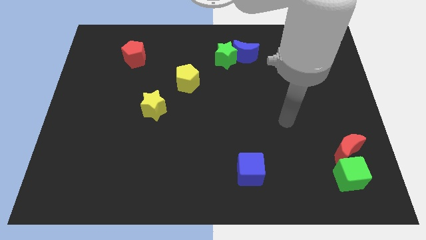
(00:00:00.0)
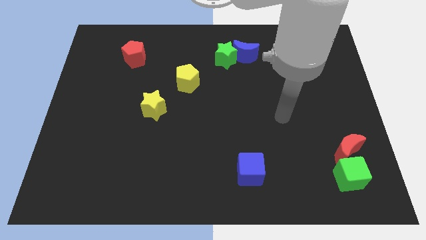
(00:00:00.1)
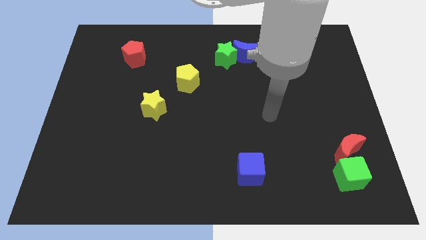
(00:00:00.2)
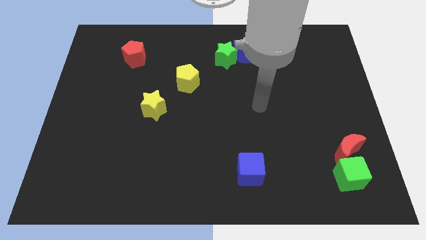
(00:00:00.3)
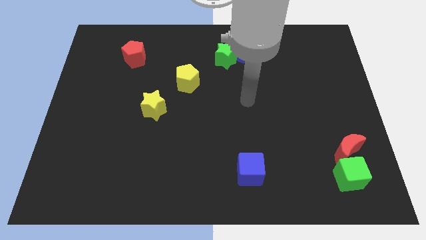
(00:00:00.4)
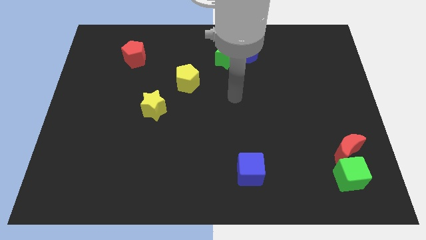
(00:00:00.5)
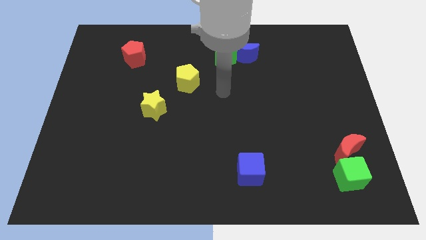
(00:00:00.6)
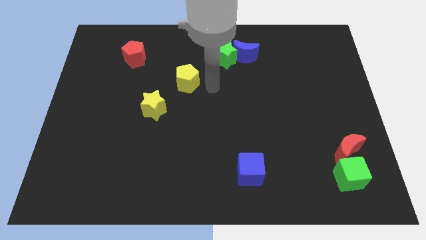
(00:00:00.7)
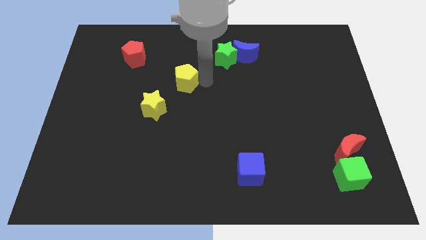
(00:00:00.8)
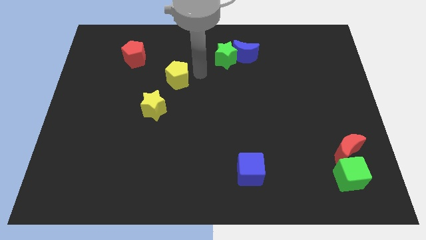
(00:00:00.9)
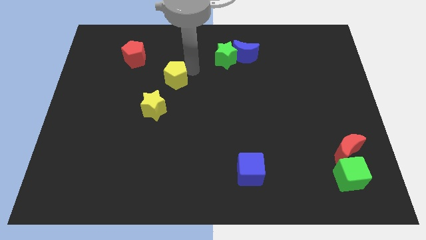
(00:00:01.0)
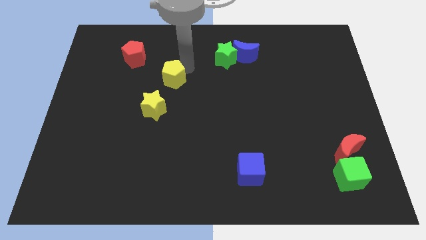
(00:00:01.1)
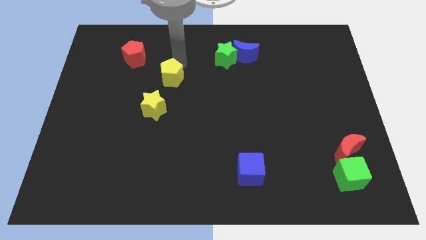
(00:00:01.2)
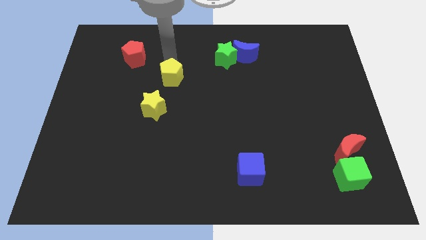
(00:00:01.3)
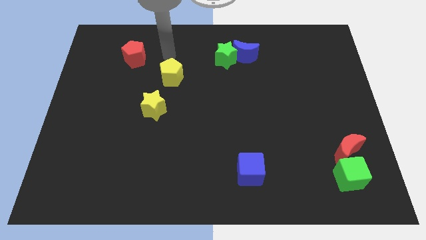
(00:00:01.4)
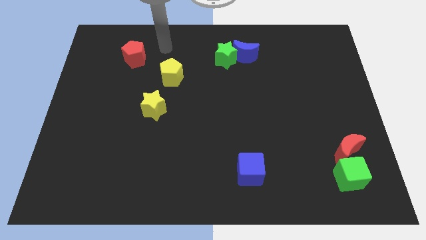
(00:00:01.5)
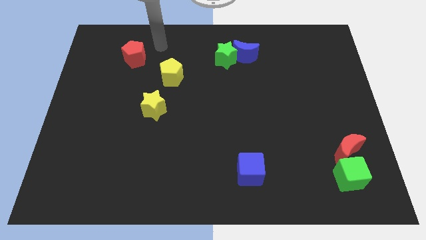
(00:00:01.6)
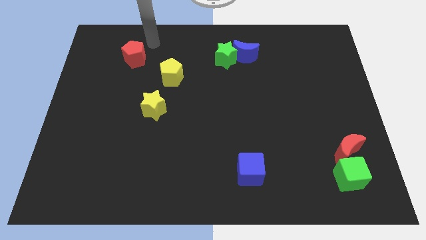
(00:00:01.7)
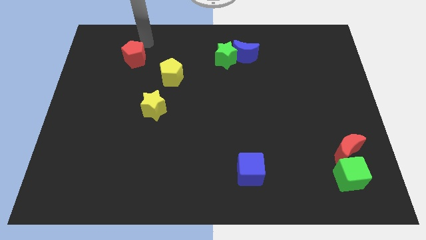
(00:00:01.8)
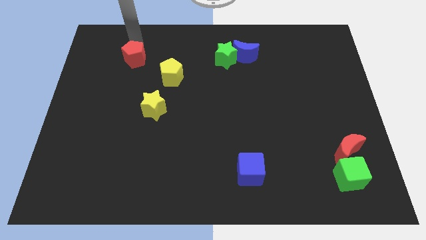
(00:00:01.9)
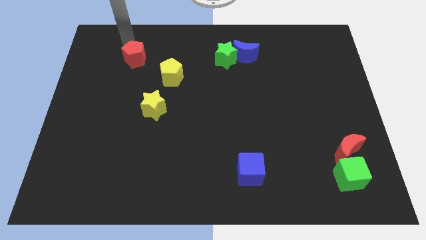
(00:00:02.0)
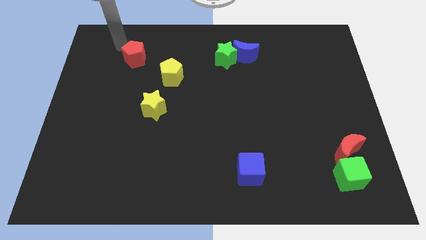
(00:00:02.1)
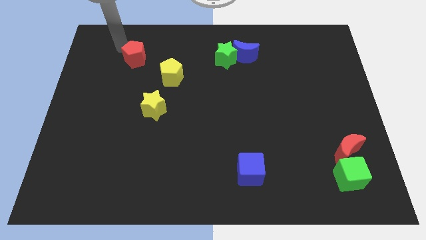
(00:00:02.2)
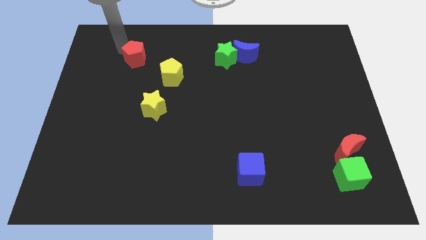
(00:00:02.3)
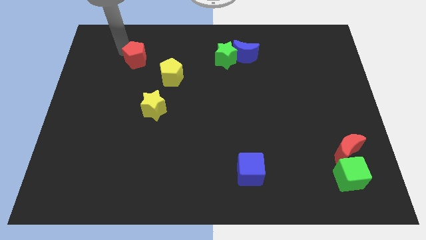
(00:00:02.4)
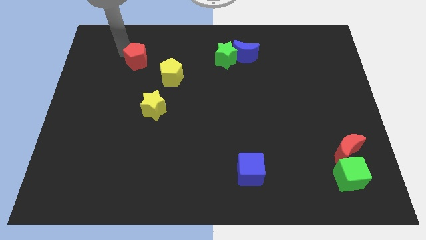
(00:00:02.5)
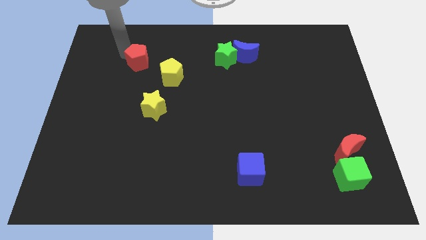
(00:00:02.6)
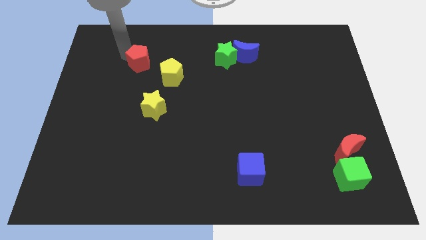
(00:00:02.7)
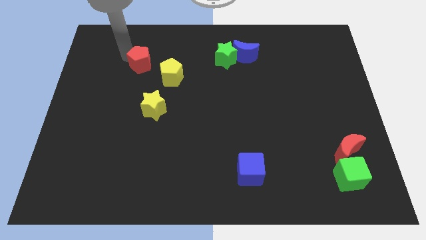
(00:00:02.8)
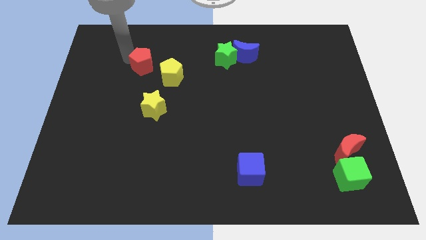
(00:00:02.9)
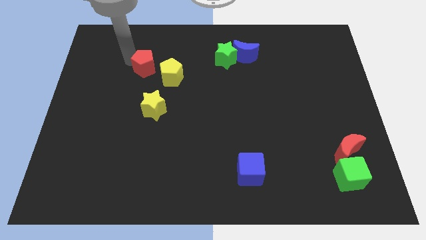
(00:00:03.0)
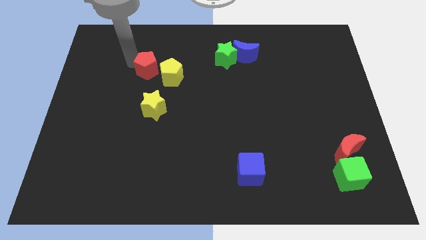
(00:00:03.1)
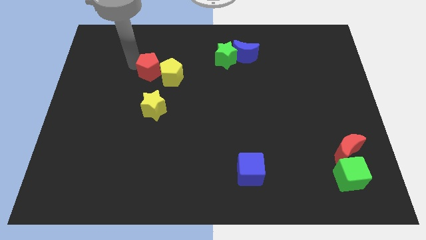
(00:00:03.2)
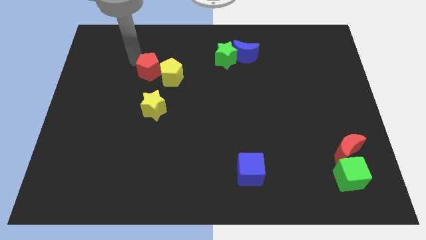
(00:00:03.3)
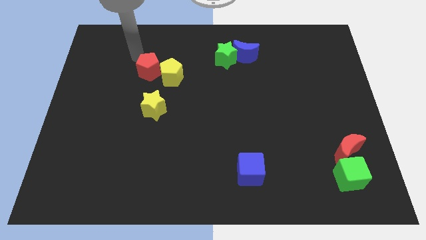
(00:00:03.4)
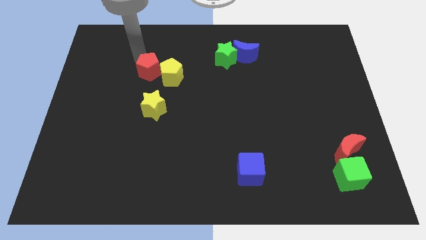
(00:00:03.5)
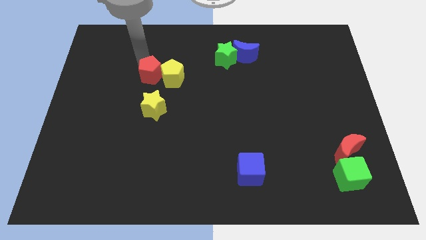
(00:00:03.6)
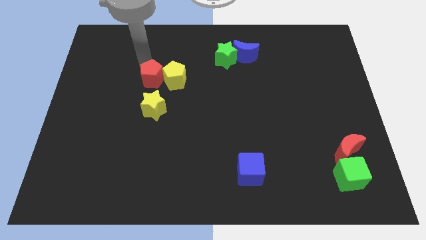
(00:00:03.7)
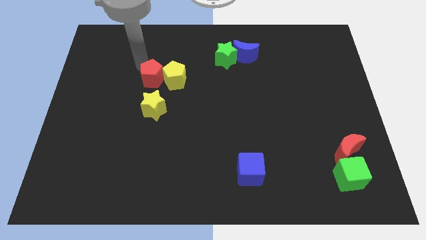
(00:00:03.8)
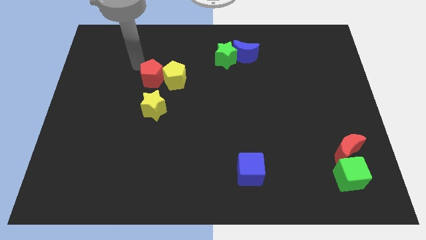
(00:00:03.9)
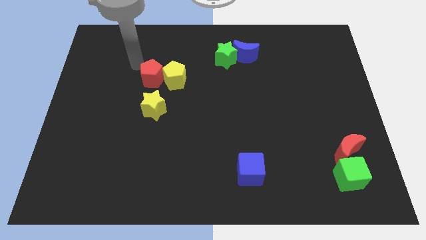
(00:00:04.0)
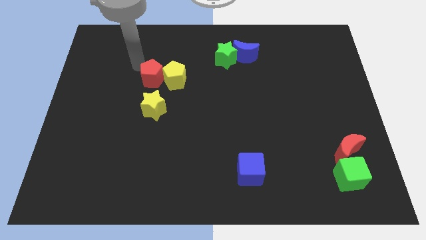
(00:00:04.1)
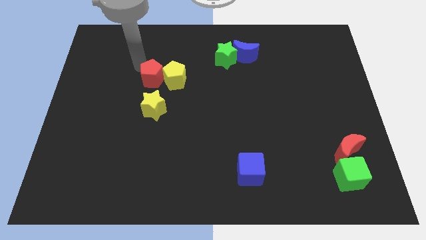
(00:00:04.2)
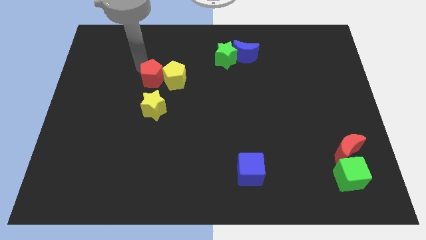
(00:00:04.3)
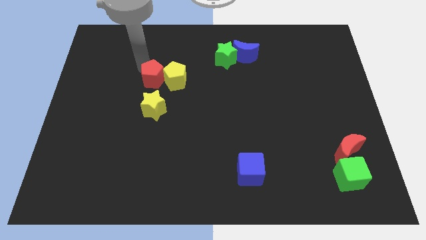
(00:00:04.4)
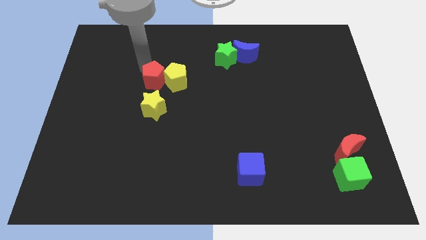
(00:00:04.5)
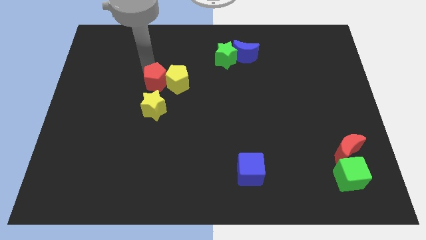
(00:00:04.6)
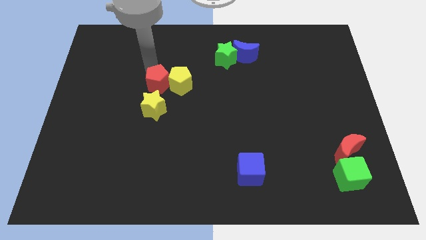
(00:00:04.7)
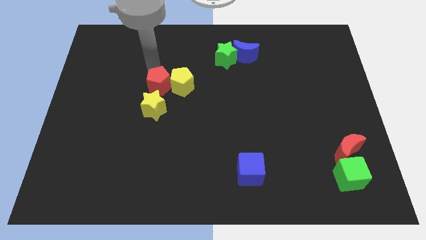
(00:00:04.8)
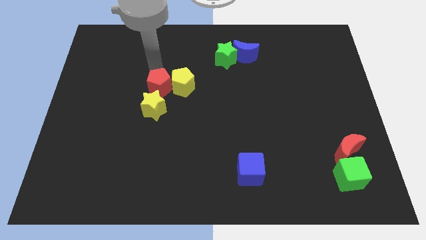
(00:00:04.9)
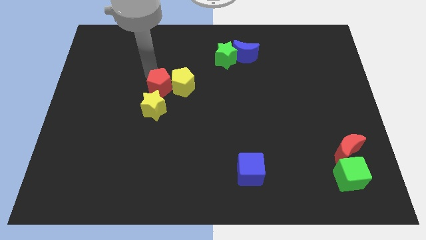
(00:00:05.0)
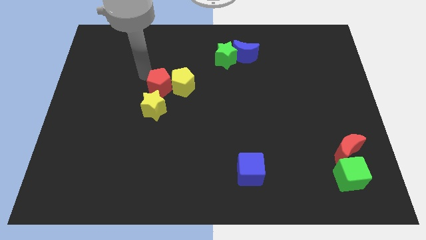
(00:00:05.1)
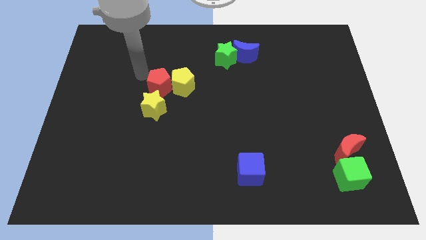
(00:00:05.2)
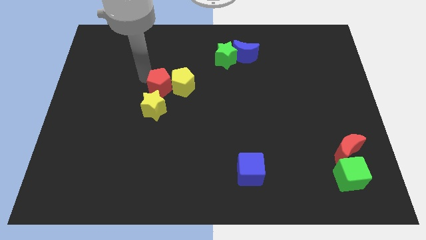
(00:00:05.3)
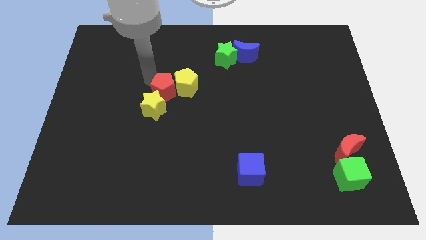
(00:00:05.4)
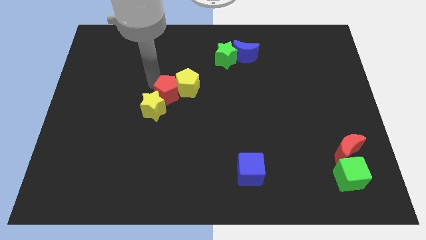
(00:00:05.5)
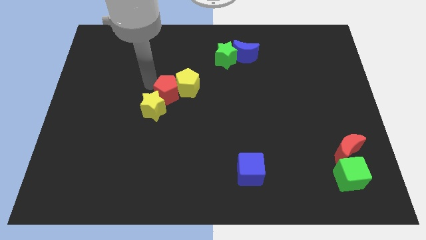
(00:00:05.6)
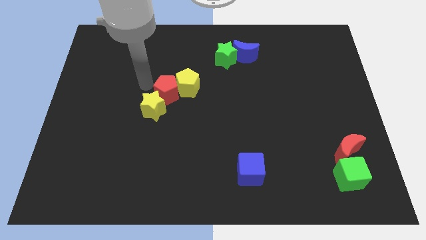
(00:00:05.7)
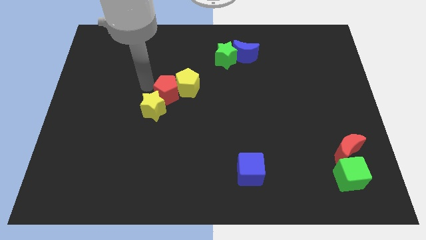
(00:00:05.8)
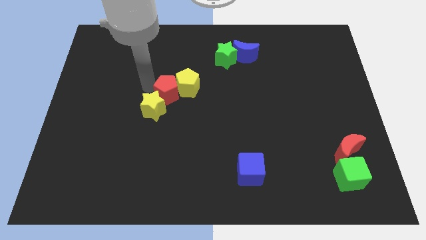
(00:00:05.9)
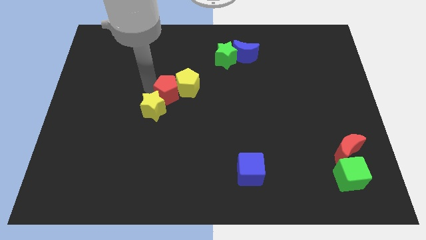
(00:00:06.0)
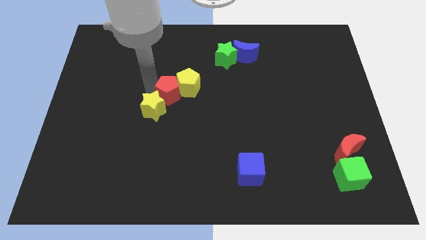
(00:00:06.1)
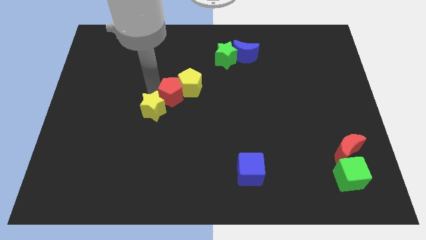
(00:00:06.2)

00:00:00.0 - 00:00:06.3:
push the red pentagon to the right side of the yellow star
